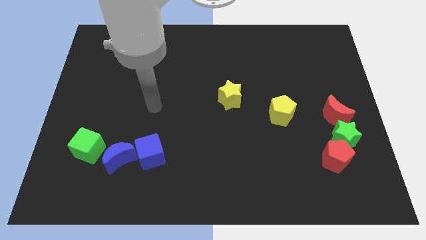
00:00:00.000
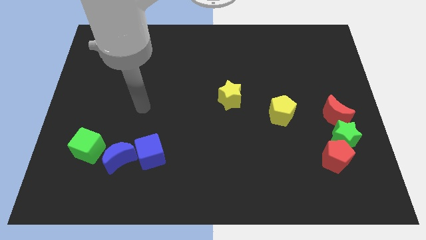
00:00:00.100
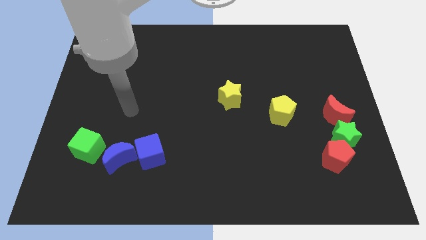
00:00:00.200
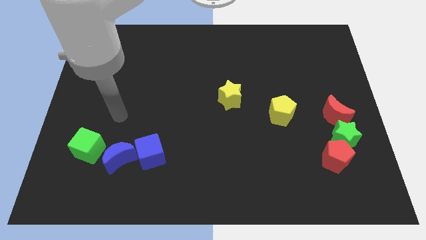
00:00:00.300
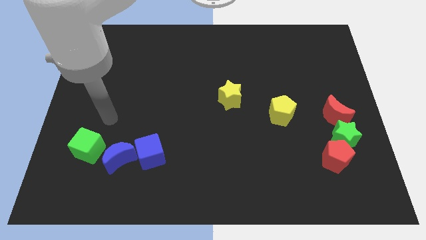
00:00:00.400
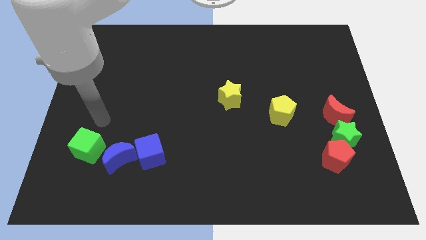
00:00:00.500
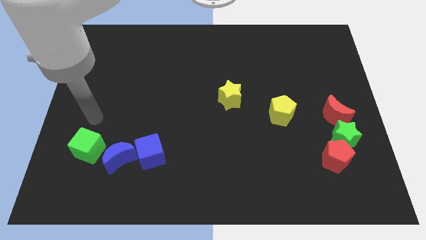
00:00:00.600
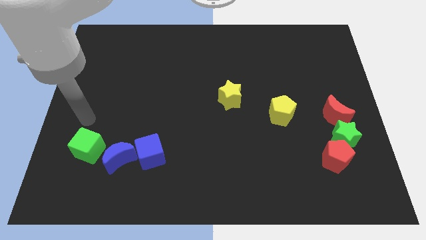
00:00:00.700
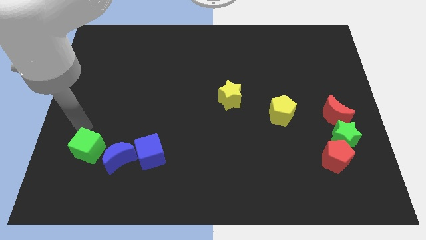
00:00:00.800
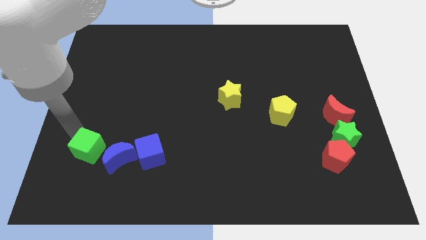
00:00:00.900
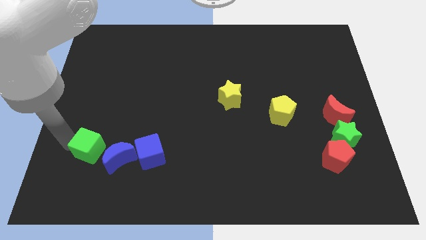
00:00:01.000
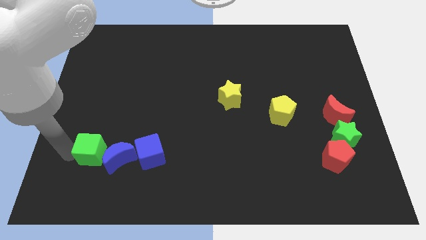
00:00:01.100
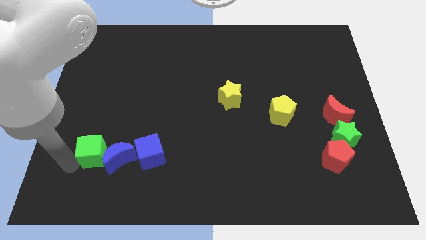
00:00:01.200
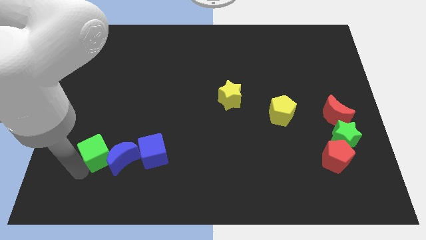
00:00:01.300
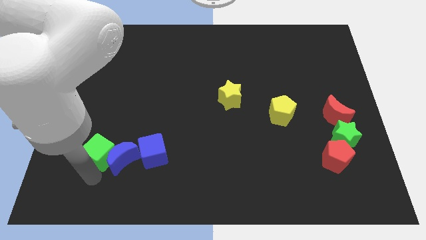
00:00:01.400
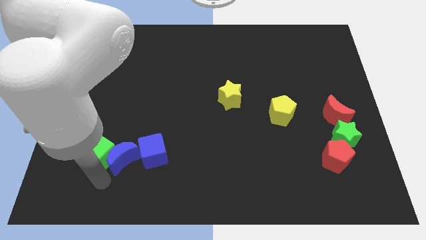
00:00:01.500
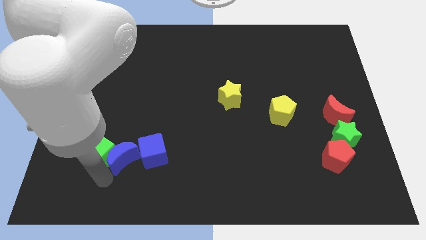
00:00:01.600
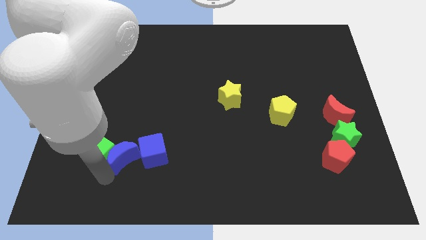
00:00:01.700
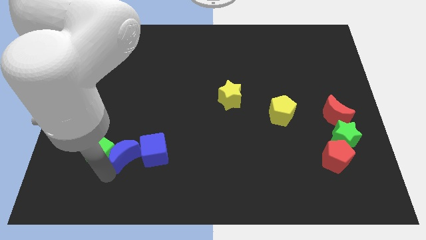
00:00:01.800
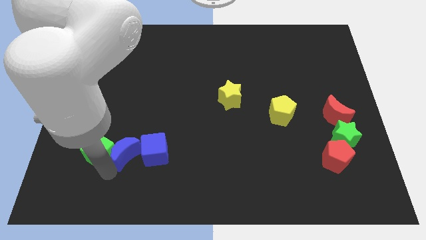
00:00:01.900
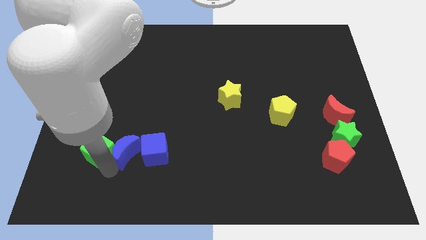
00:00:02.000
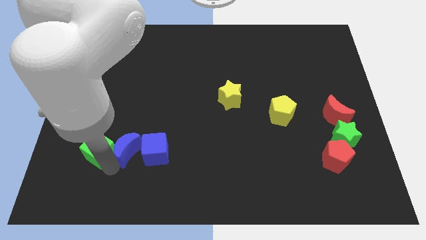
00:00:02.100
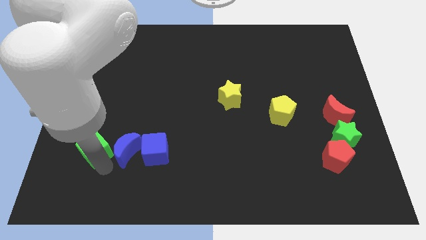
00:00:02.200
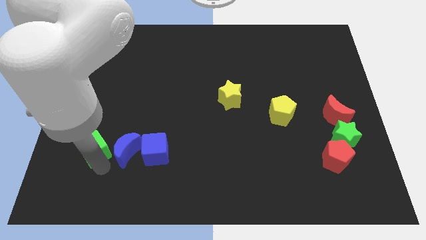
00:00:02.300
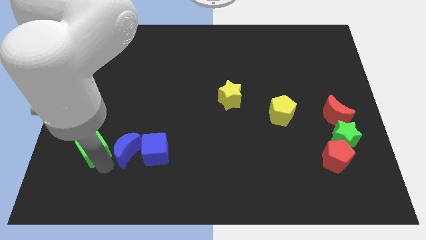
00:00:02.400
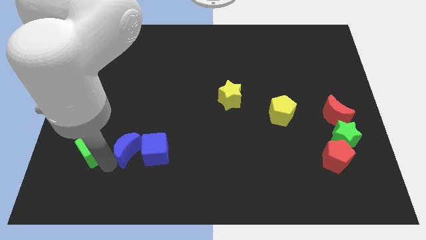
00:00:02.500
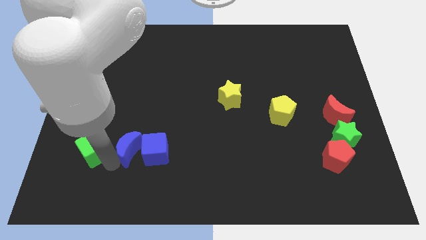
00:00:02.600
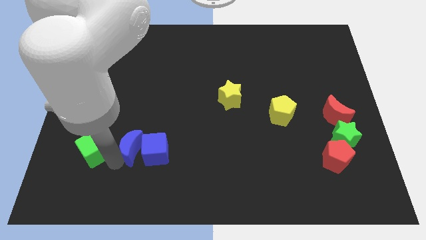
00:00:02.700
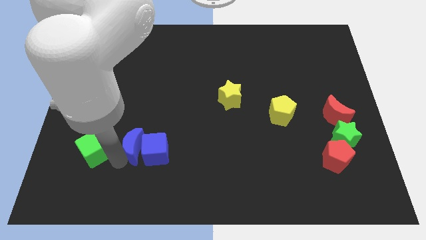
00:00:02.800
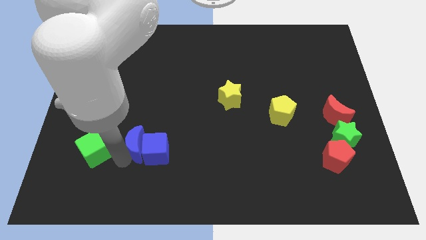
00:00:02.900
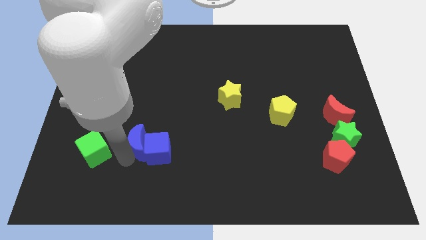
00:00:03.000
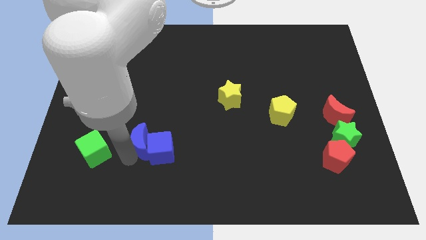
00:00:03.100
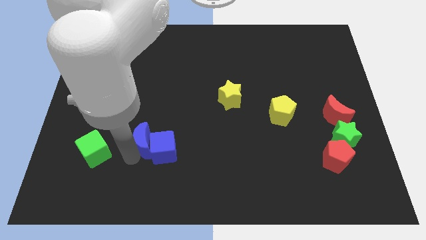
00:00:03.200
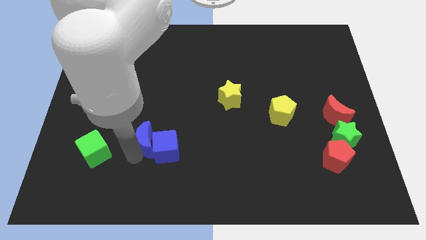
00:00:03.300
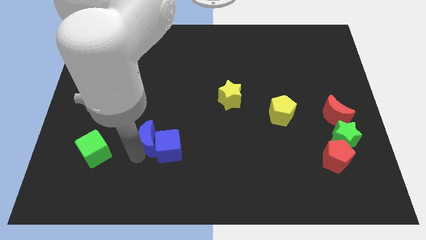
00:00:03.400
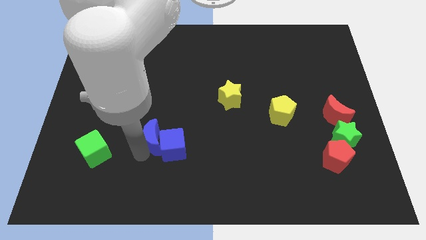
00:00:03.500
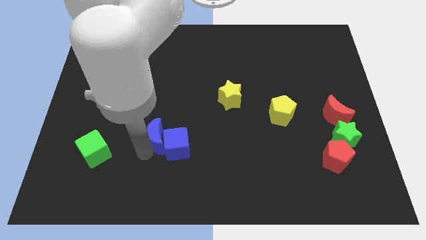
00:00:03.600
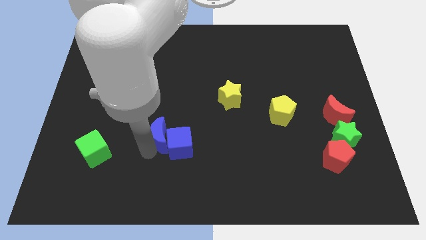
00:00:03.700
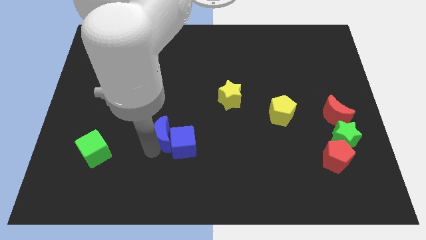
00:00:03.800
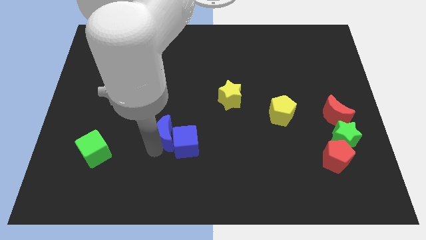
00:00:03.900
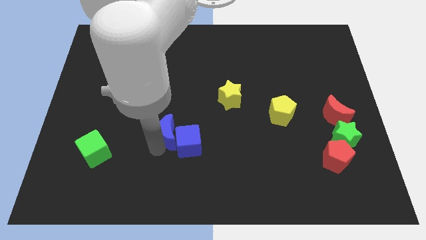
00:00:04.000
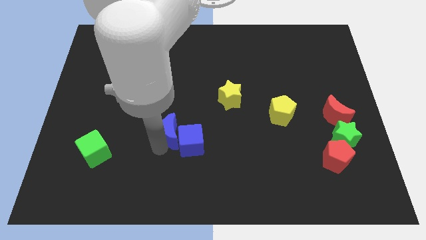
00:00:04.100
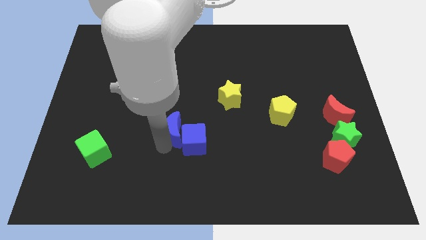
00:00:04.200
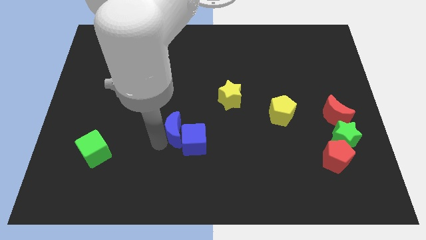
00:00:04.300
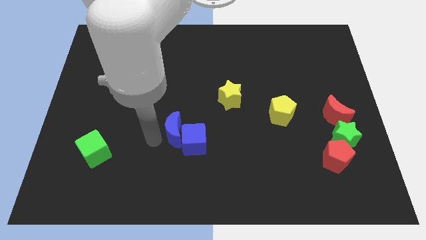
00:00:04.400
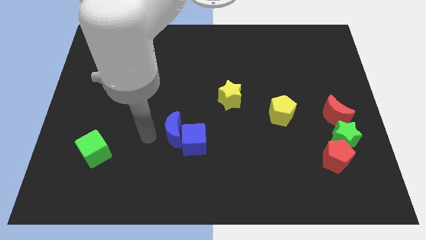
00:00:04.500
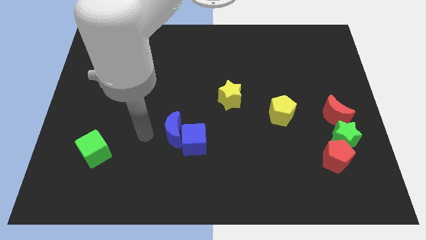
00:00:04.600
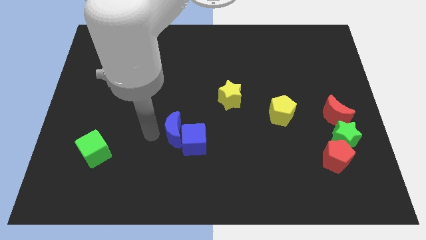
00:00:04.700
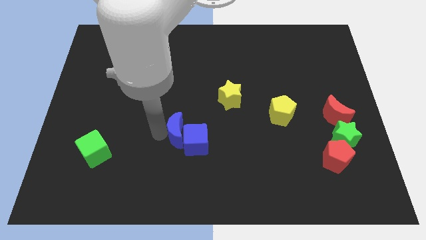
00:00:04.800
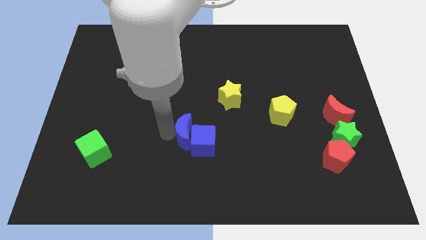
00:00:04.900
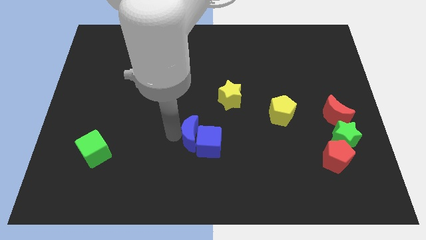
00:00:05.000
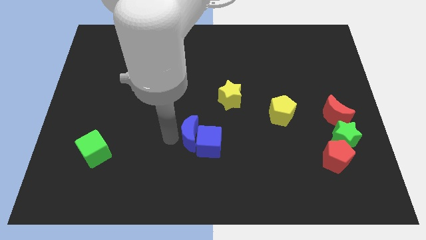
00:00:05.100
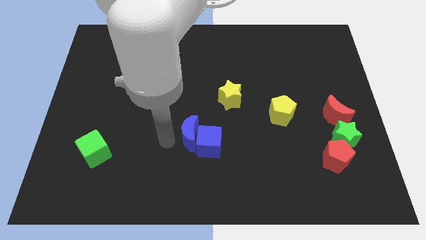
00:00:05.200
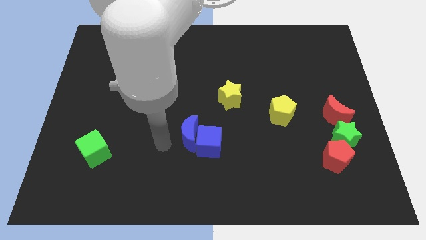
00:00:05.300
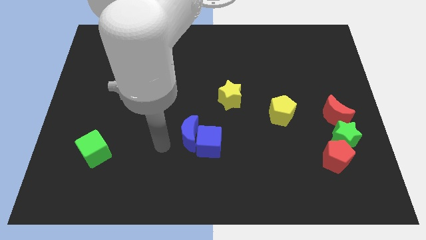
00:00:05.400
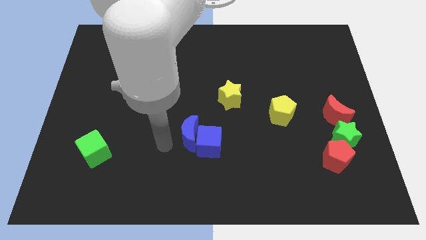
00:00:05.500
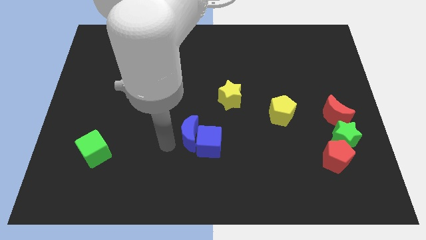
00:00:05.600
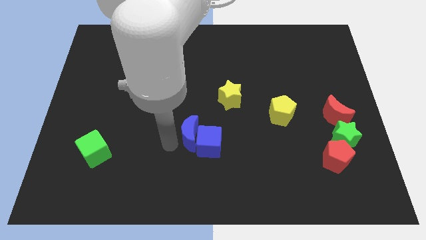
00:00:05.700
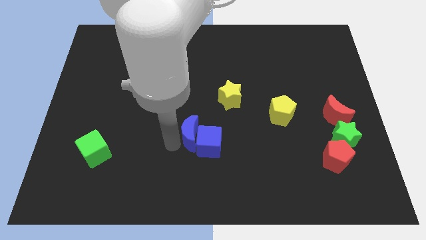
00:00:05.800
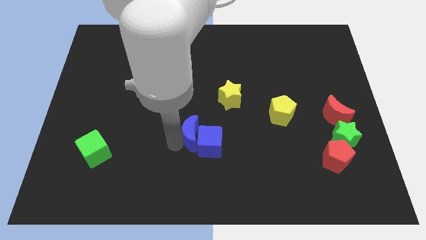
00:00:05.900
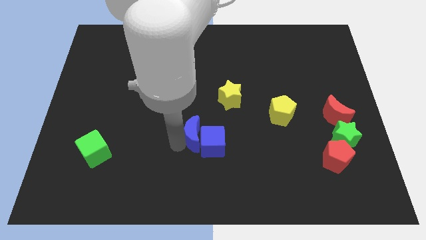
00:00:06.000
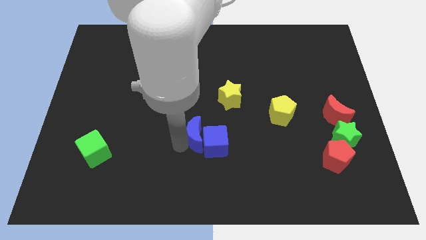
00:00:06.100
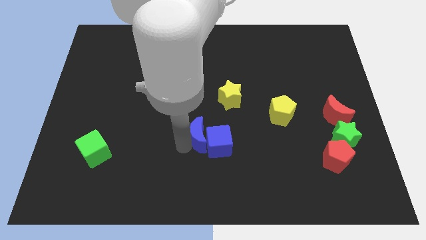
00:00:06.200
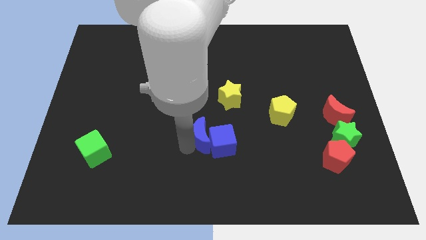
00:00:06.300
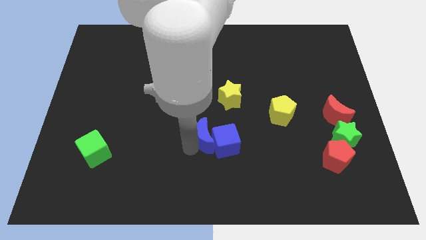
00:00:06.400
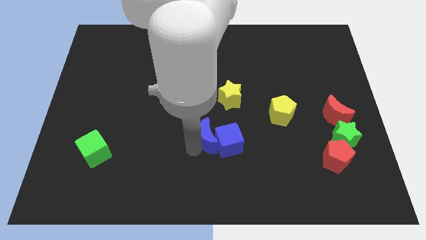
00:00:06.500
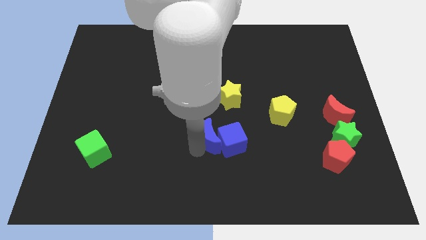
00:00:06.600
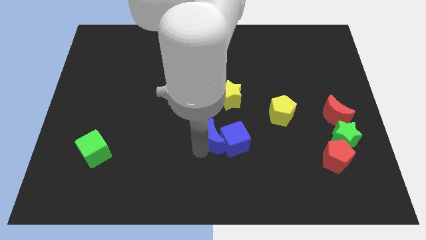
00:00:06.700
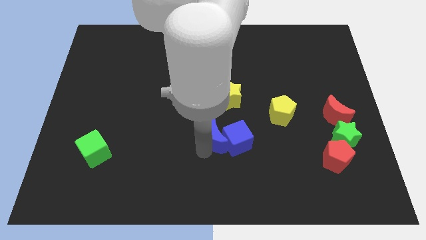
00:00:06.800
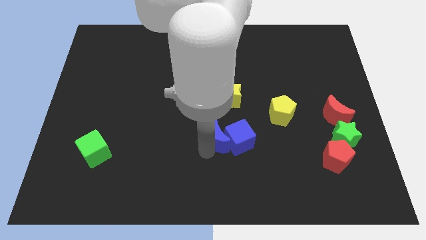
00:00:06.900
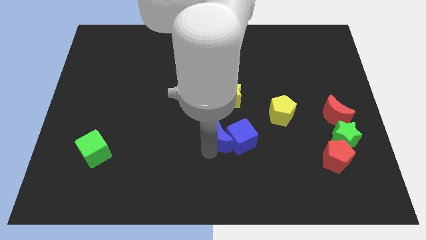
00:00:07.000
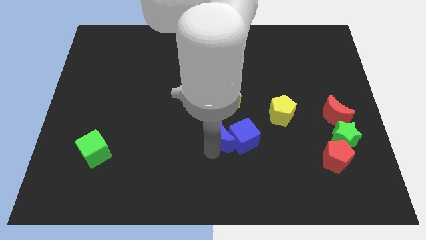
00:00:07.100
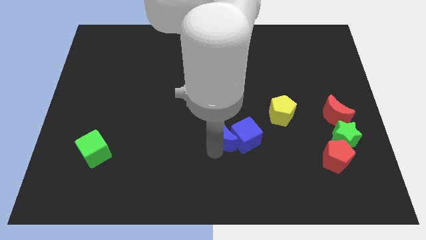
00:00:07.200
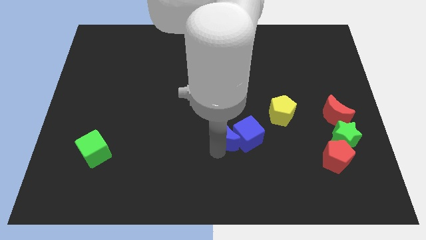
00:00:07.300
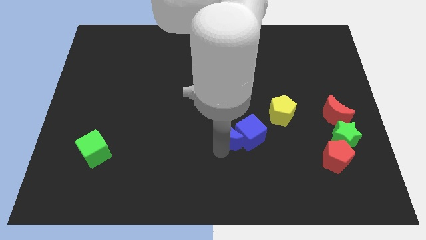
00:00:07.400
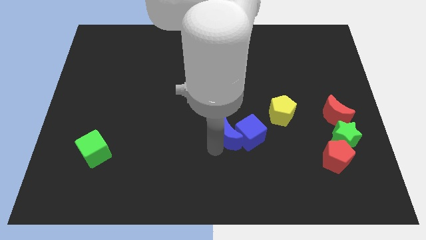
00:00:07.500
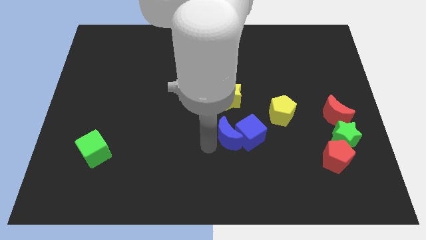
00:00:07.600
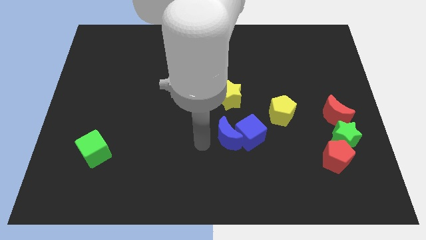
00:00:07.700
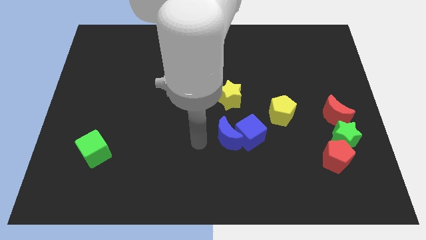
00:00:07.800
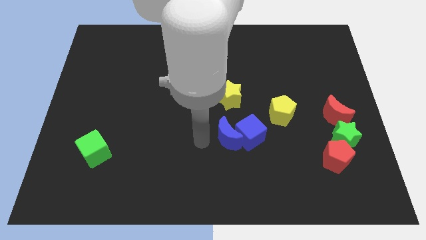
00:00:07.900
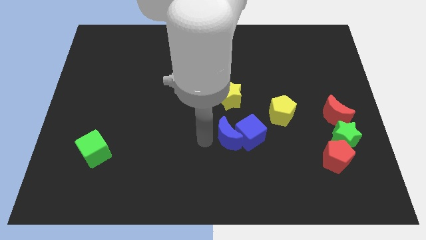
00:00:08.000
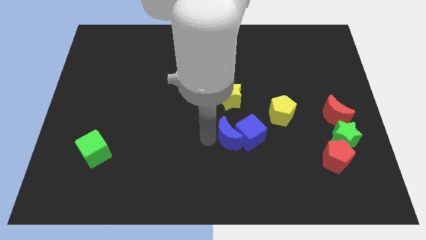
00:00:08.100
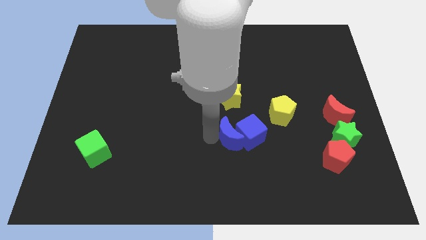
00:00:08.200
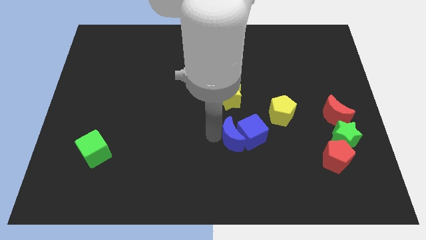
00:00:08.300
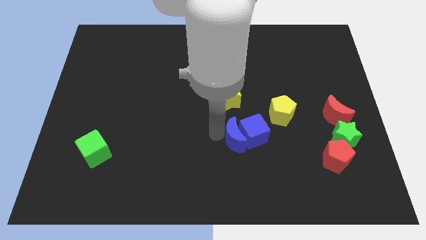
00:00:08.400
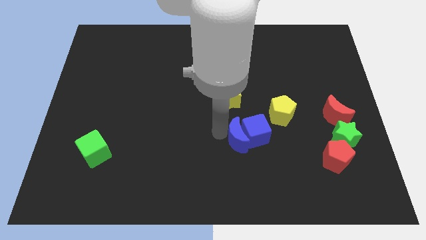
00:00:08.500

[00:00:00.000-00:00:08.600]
put the blue moon to the bottom left side of the yellow pentagon
